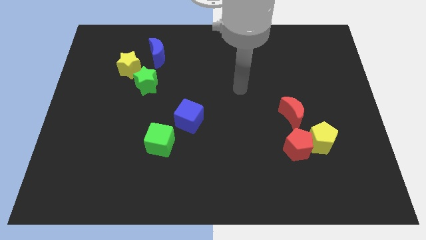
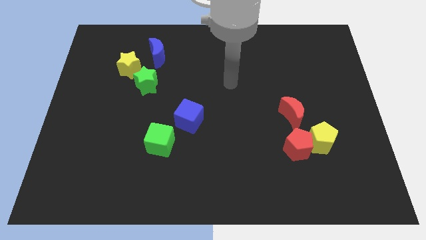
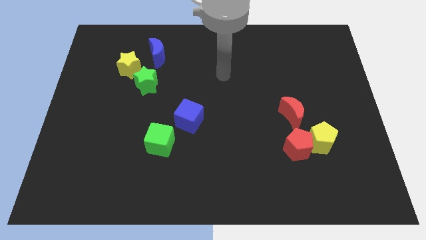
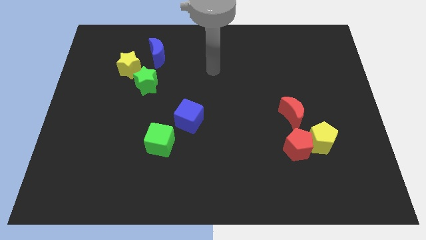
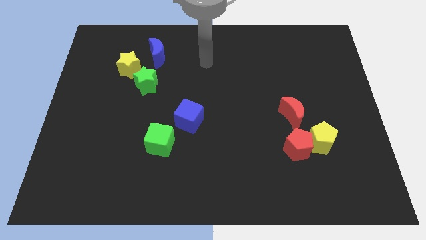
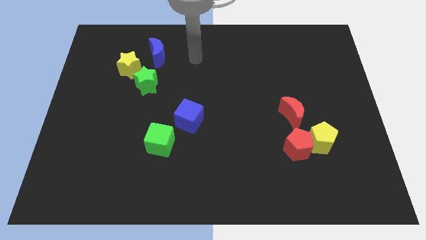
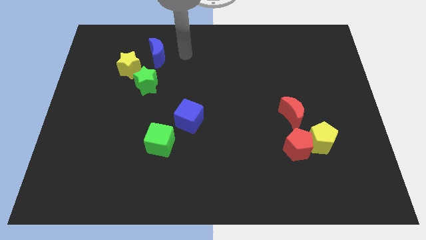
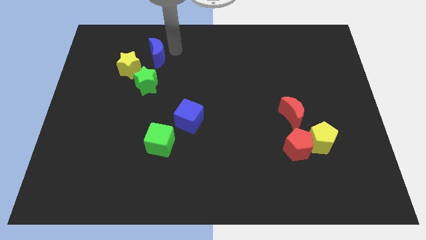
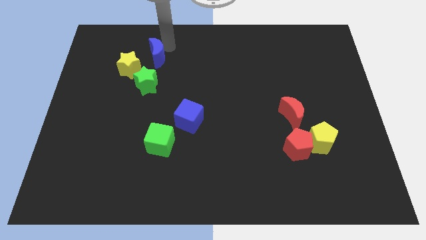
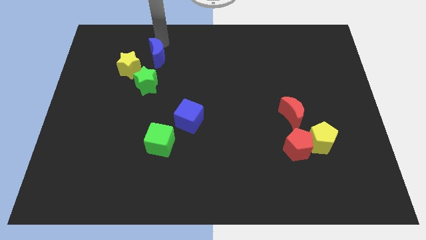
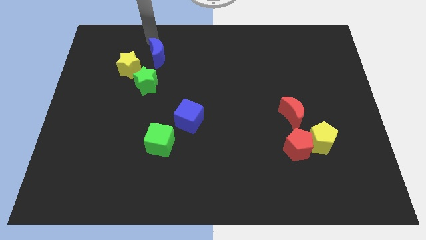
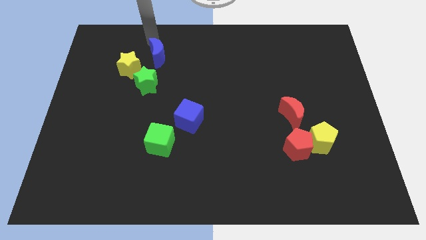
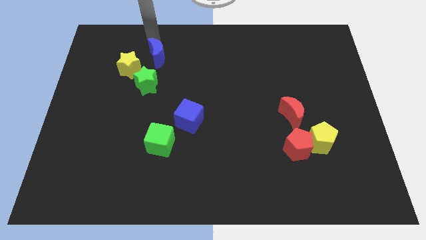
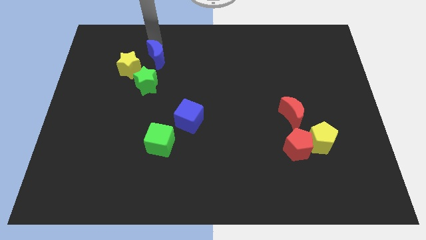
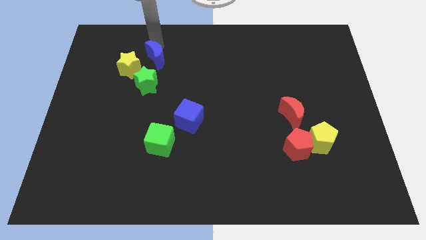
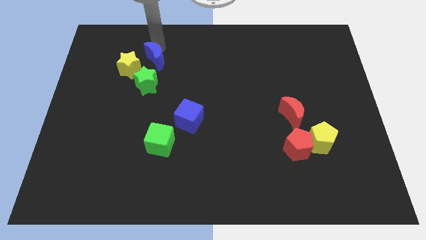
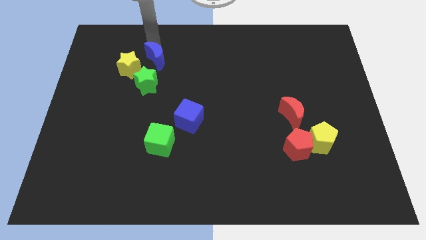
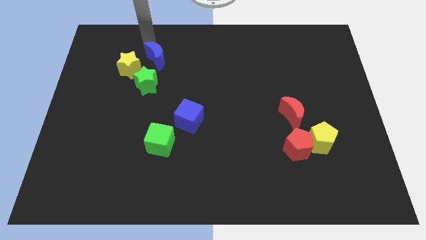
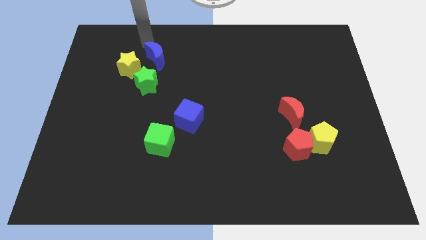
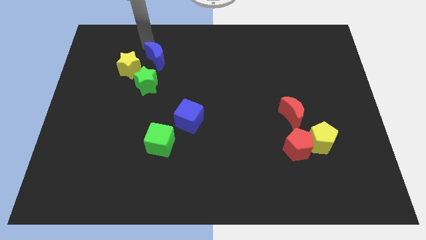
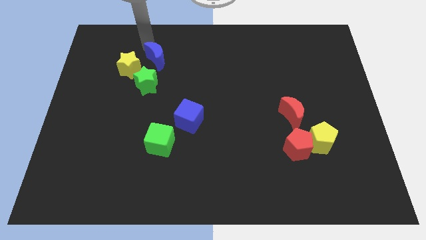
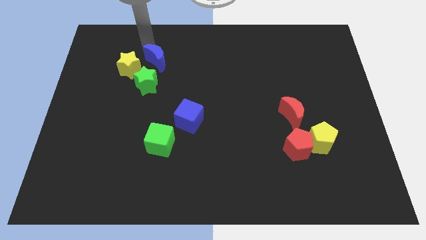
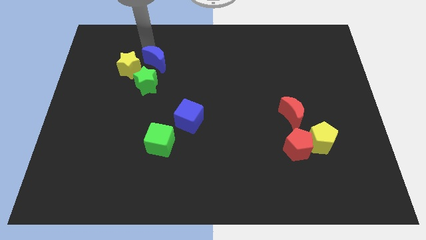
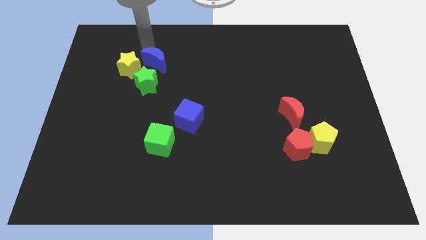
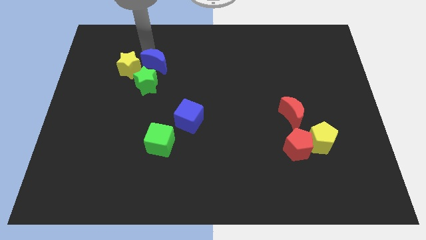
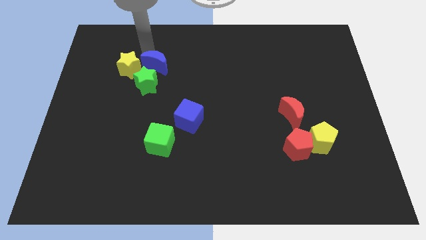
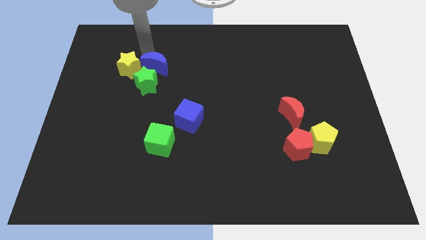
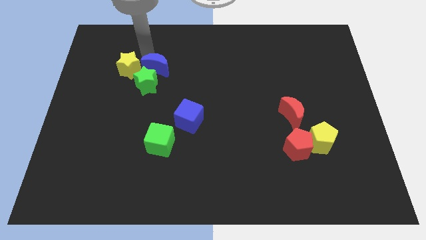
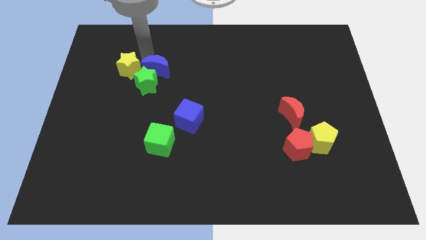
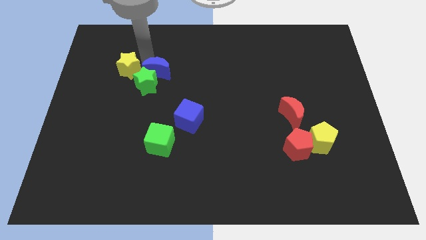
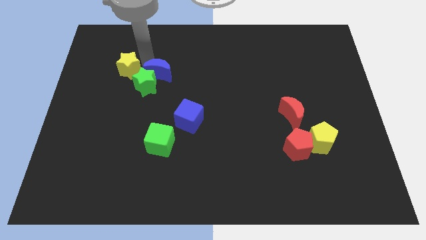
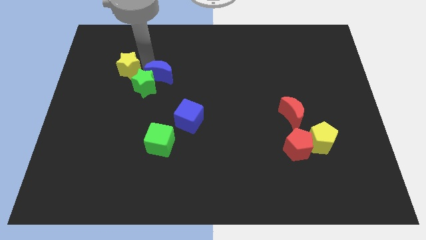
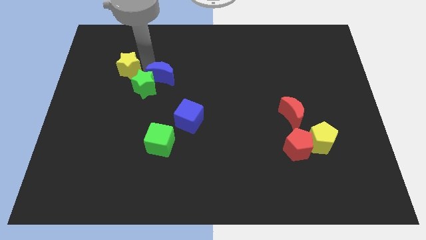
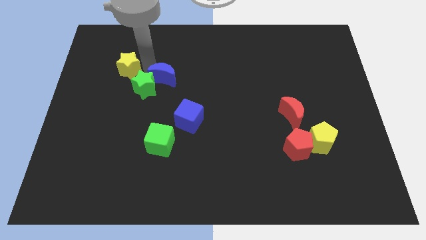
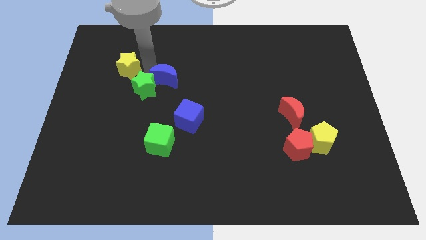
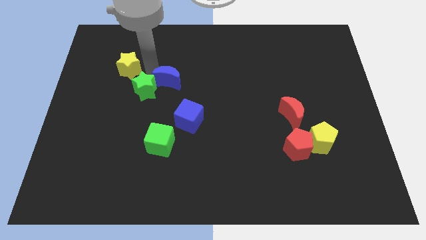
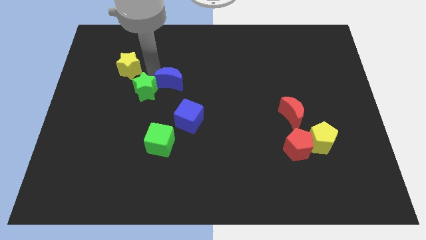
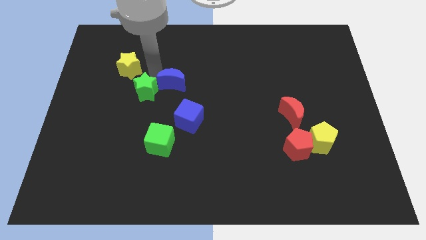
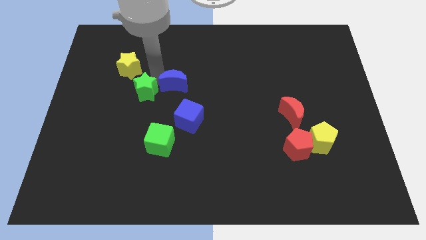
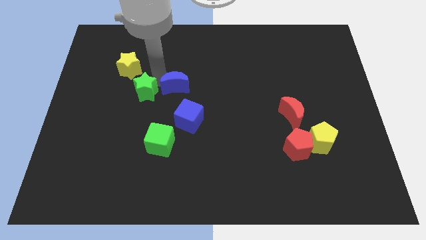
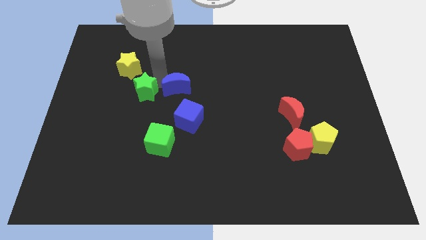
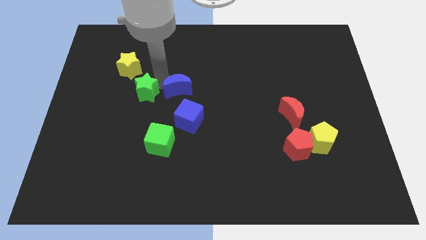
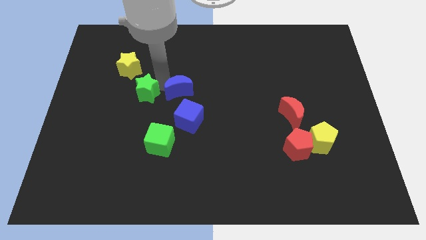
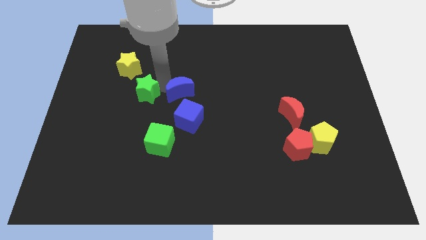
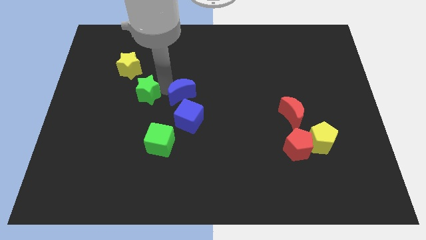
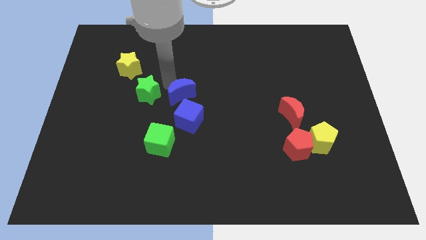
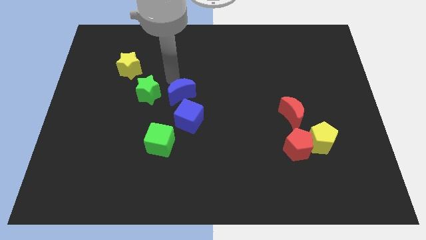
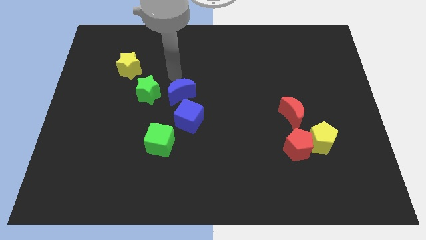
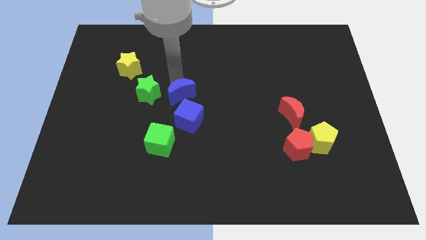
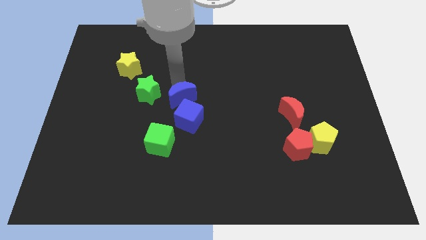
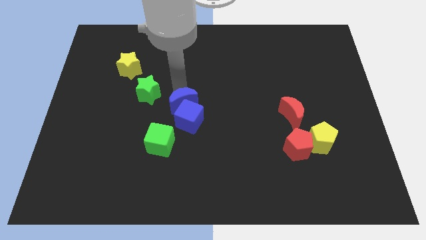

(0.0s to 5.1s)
put the blue moon towards the blue cube

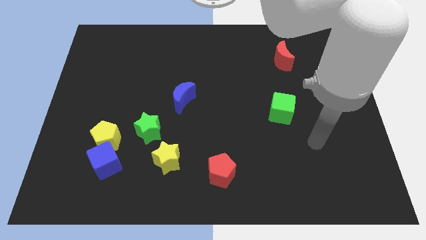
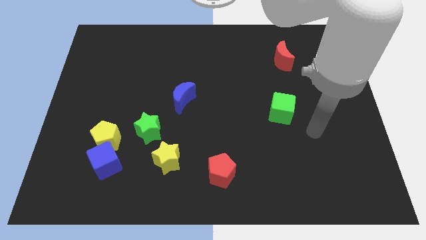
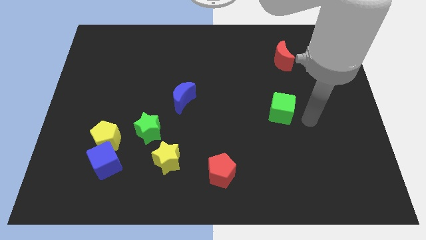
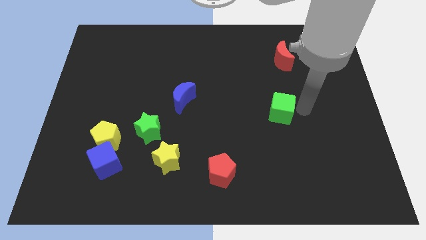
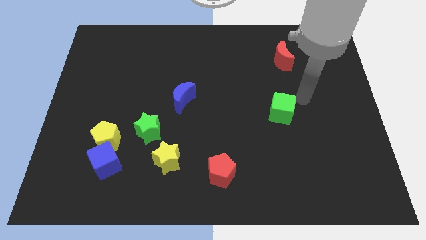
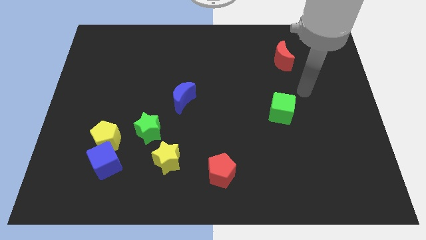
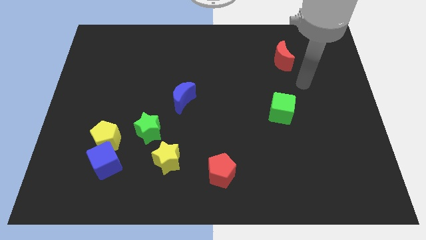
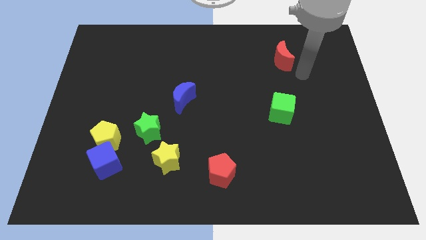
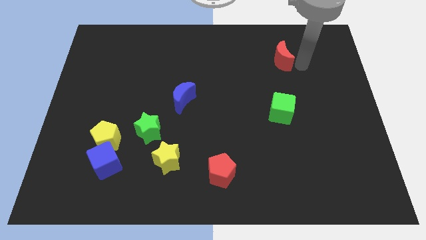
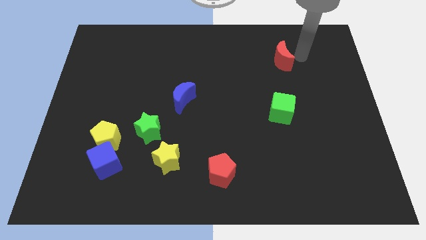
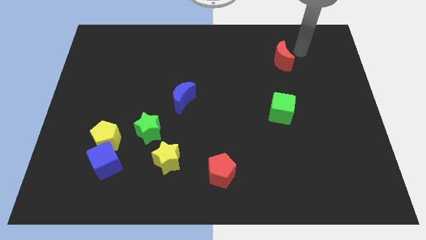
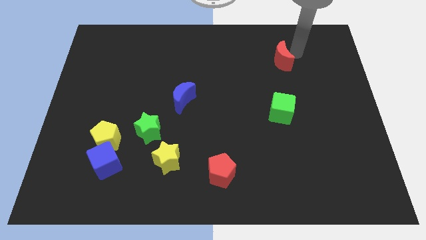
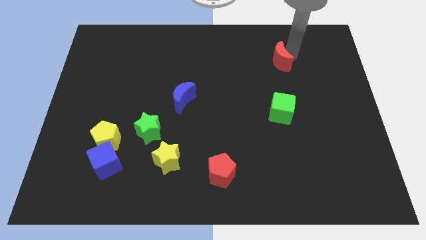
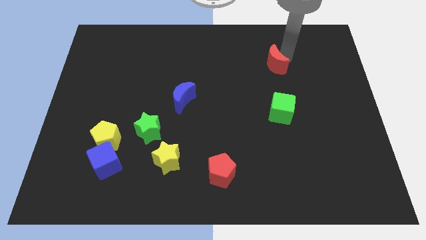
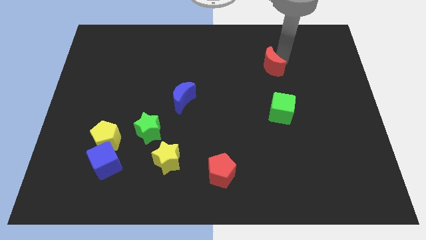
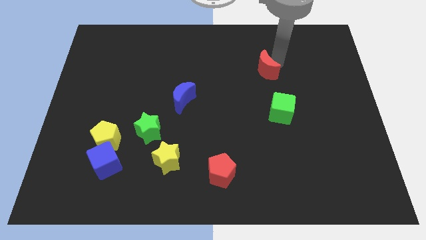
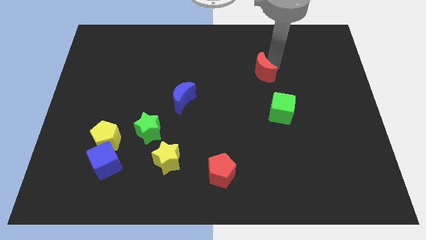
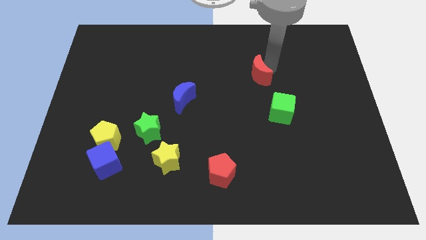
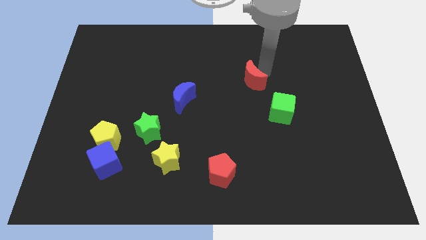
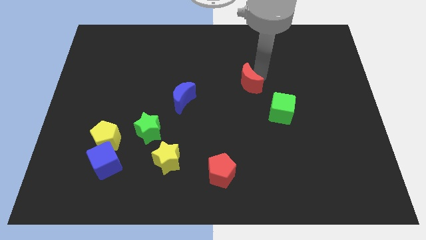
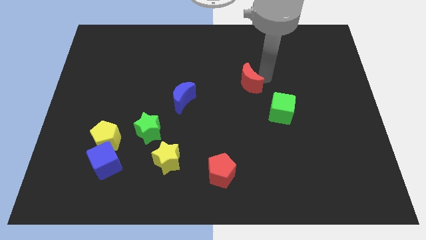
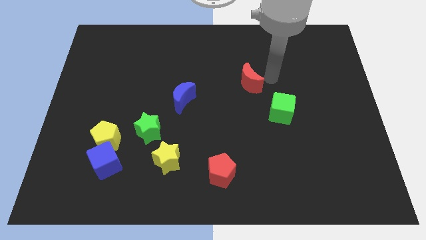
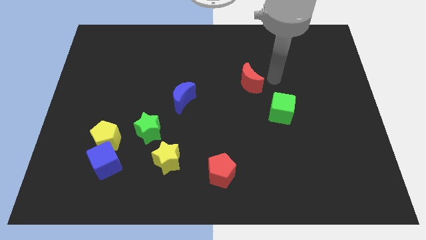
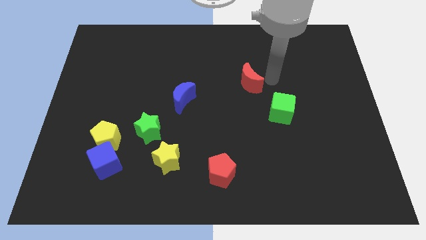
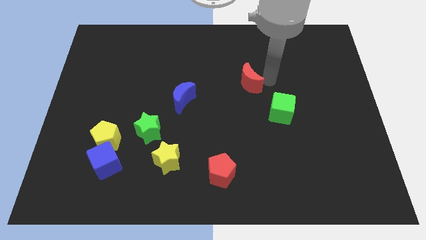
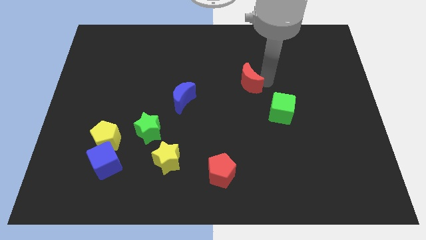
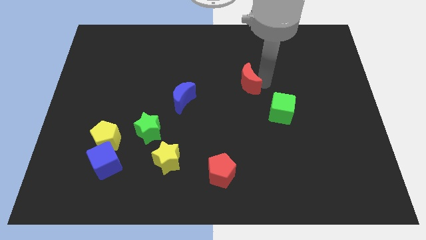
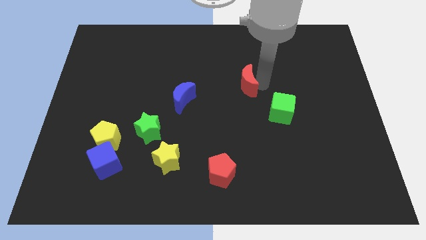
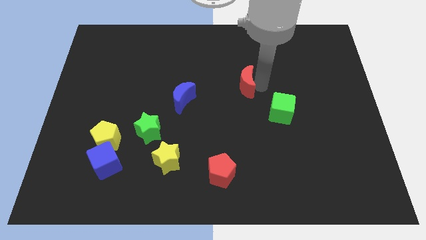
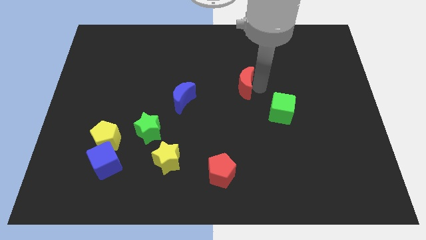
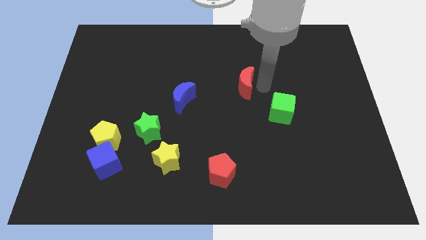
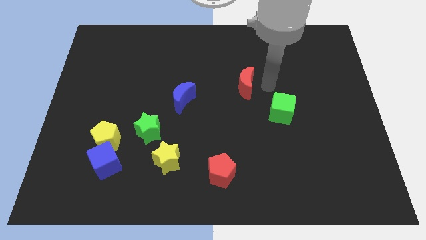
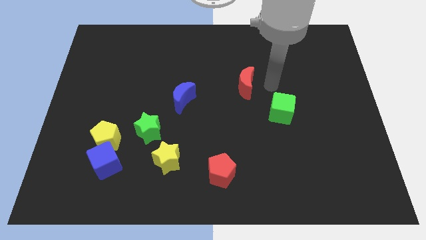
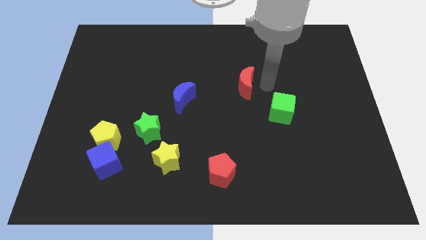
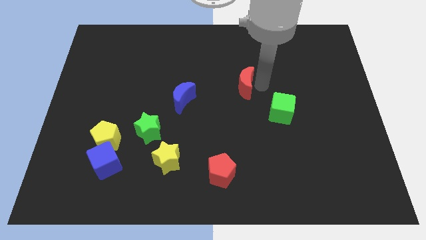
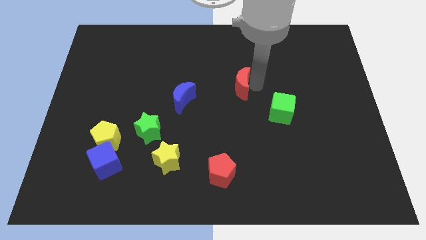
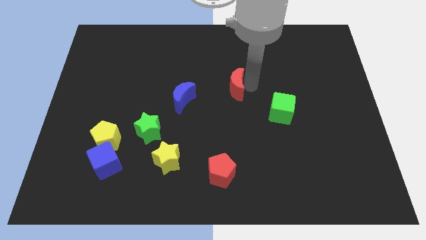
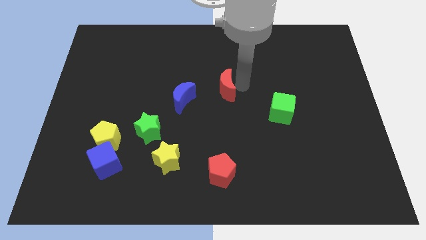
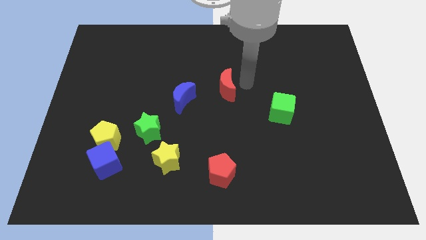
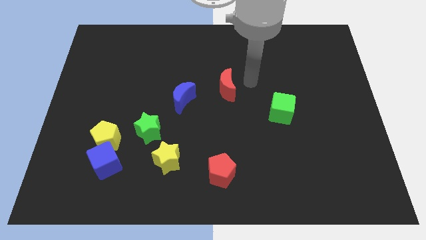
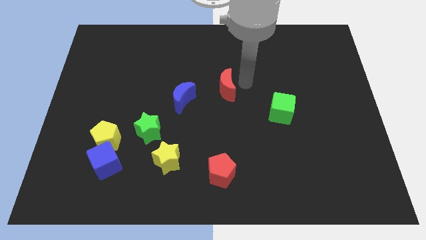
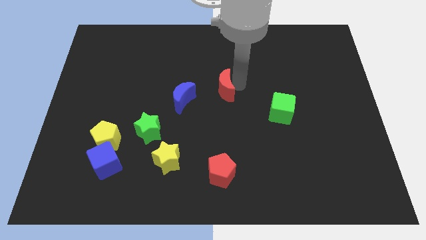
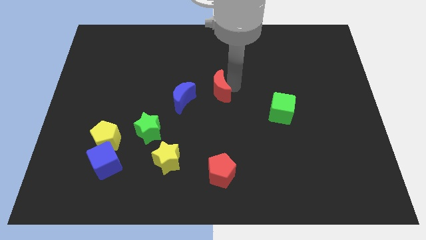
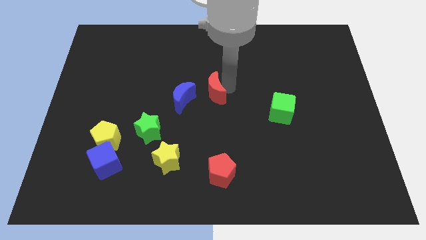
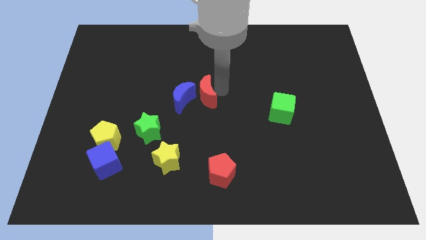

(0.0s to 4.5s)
put the red moon to the blue moon
